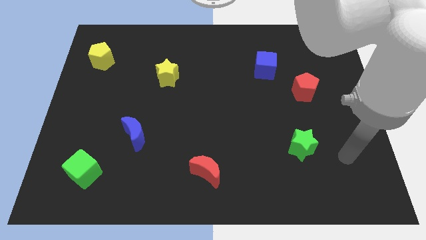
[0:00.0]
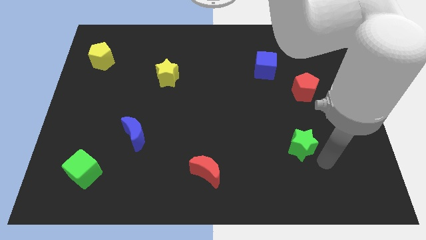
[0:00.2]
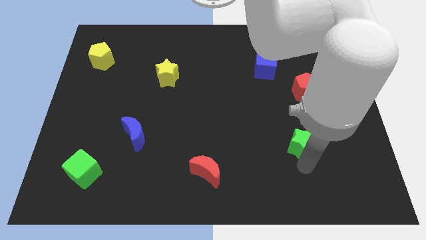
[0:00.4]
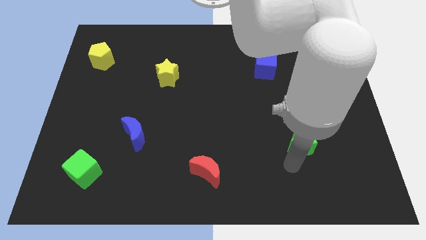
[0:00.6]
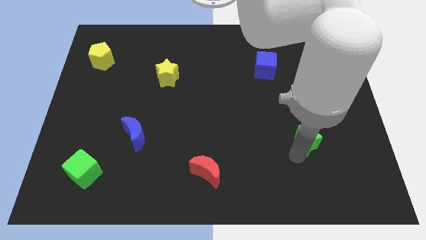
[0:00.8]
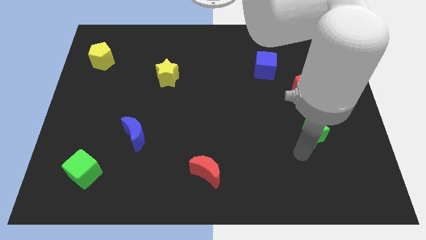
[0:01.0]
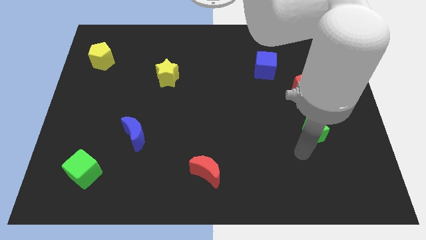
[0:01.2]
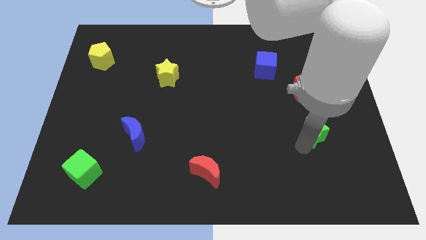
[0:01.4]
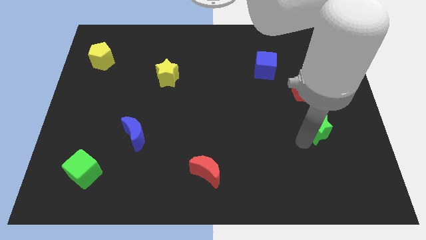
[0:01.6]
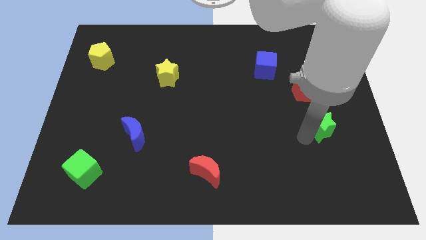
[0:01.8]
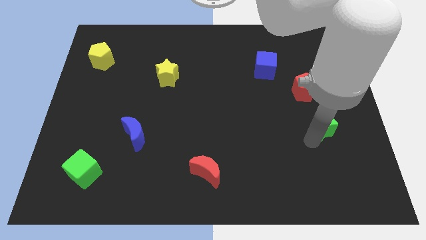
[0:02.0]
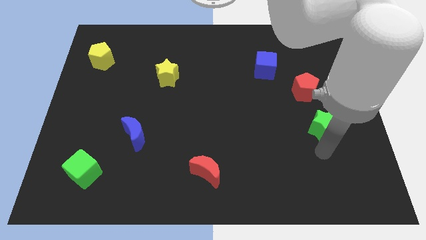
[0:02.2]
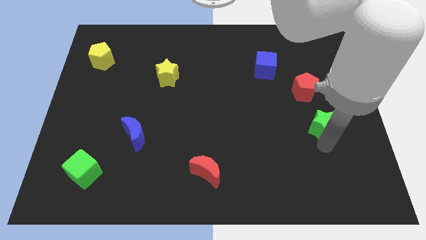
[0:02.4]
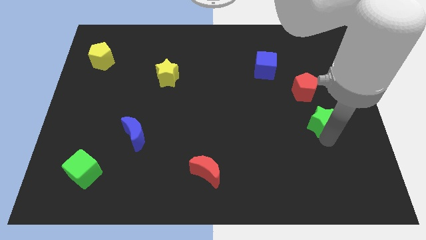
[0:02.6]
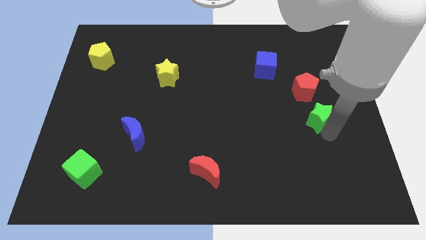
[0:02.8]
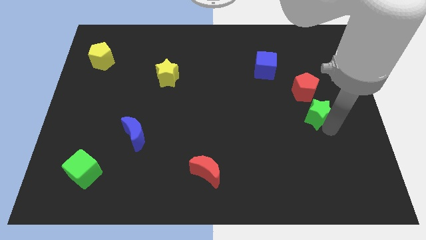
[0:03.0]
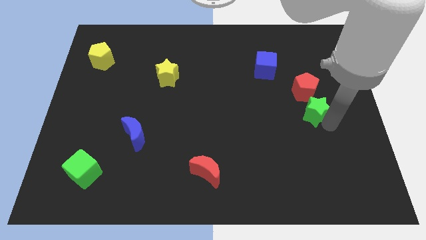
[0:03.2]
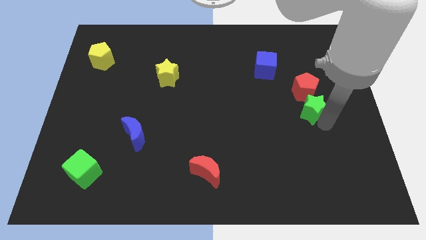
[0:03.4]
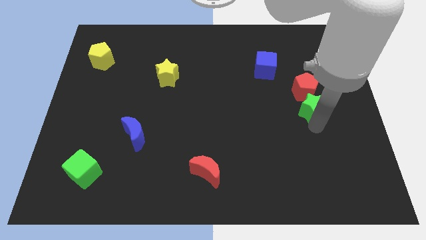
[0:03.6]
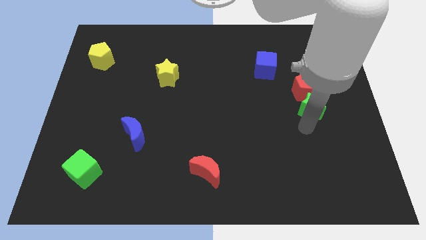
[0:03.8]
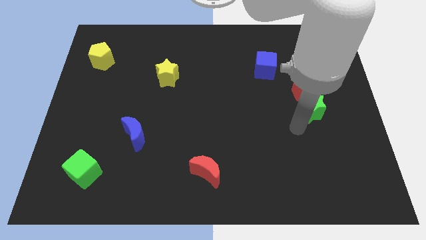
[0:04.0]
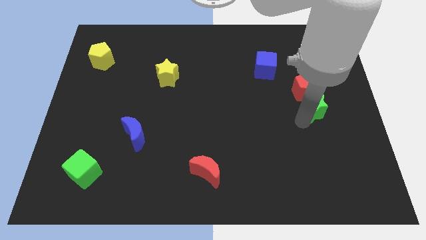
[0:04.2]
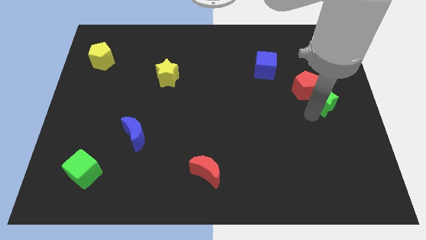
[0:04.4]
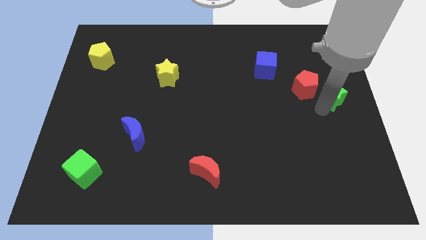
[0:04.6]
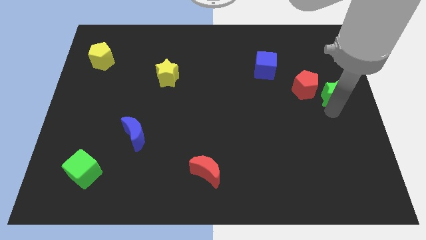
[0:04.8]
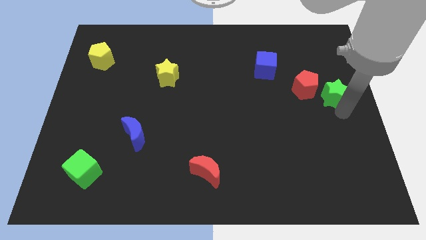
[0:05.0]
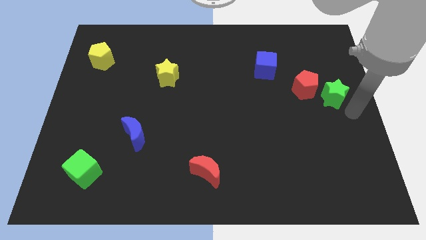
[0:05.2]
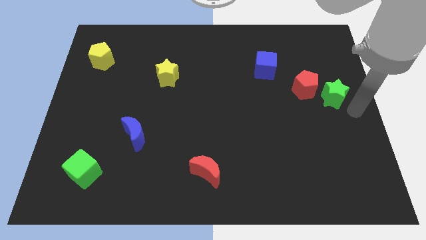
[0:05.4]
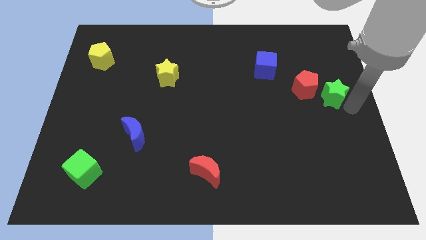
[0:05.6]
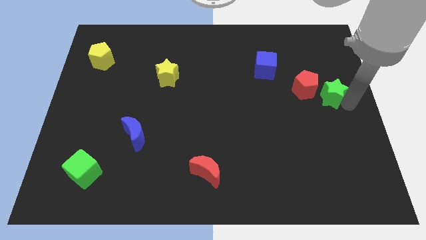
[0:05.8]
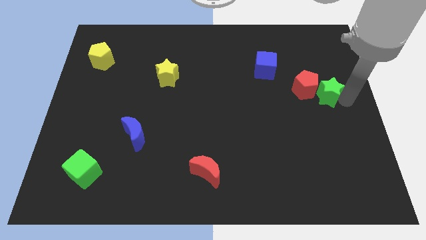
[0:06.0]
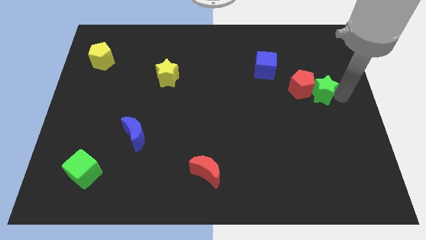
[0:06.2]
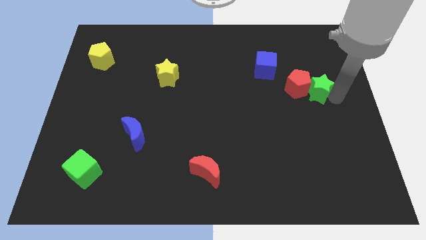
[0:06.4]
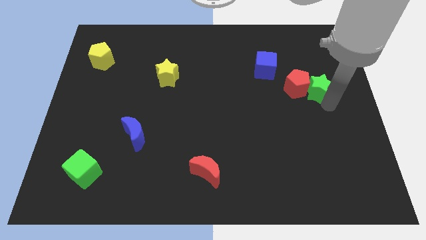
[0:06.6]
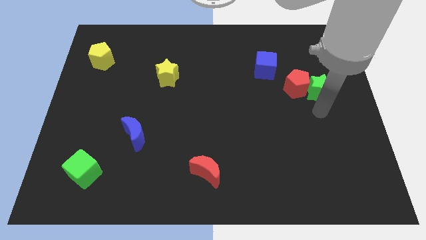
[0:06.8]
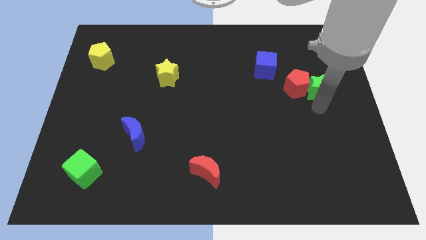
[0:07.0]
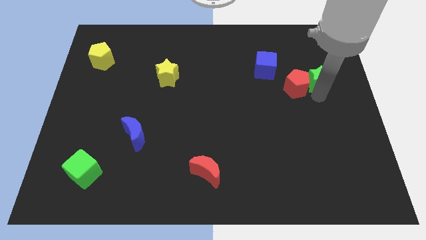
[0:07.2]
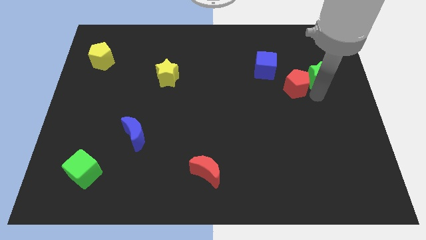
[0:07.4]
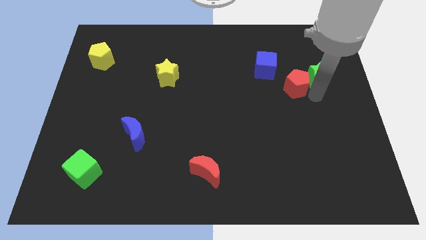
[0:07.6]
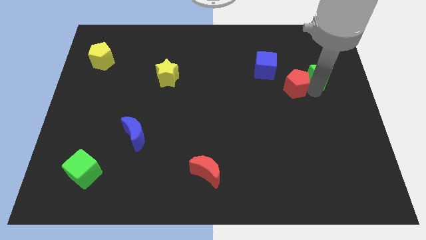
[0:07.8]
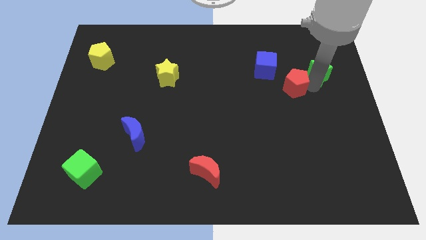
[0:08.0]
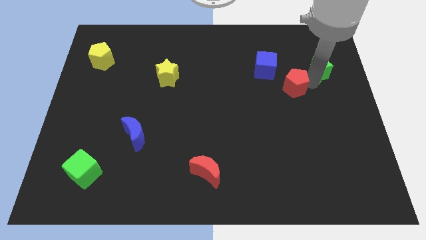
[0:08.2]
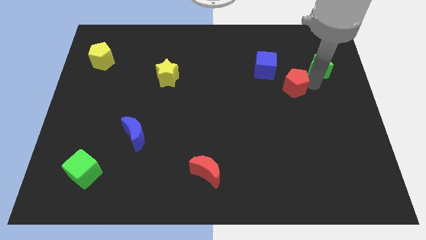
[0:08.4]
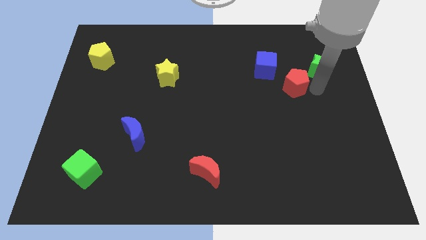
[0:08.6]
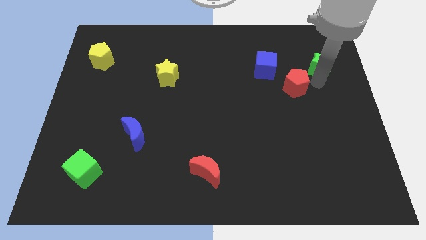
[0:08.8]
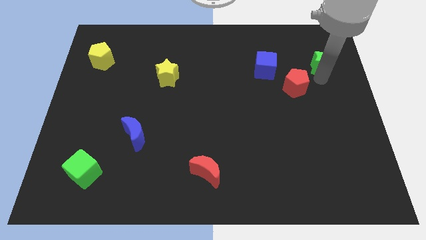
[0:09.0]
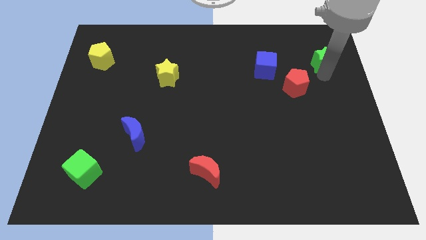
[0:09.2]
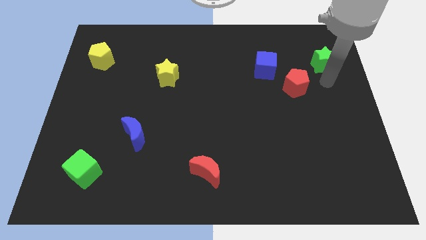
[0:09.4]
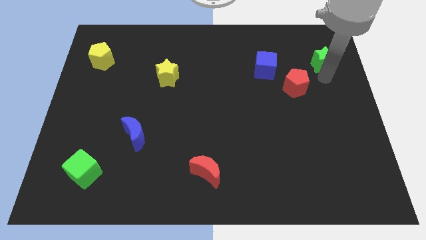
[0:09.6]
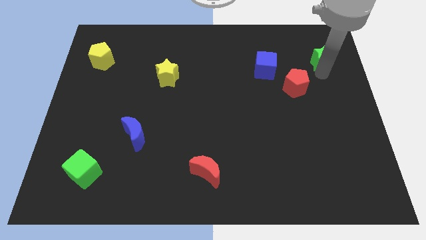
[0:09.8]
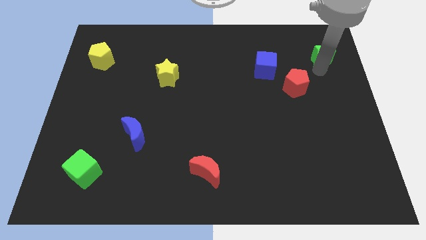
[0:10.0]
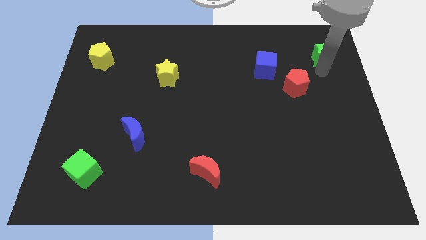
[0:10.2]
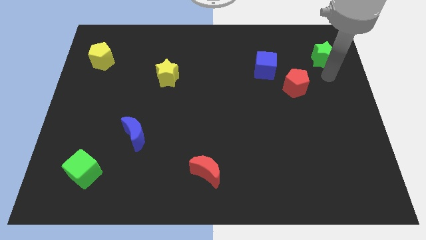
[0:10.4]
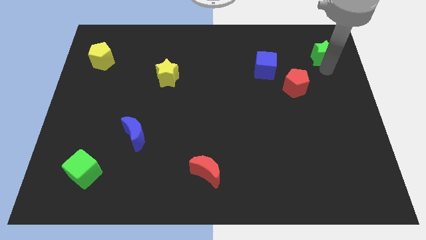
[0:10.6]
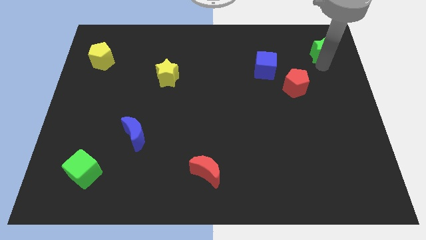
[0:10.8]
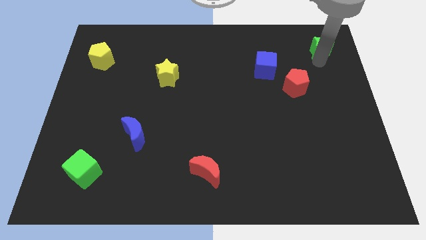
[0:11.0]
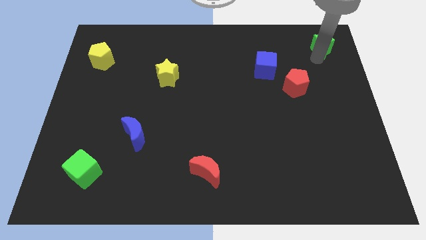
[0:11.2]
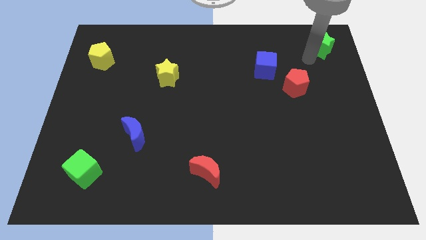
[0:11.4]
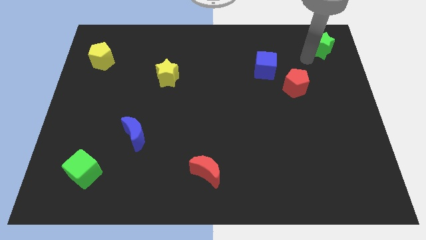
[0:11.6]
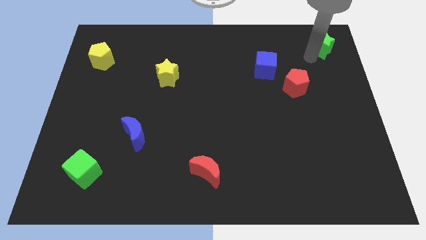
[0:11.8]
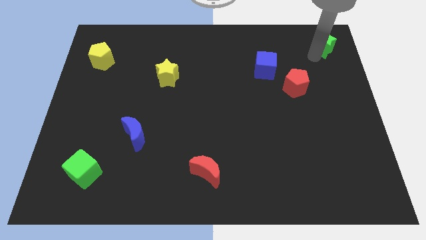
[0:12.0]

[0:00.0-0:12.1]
put the green star to the top right of the board

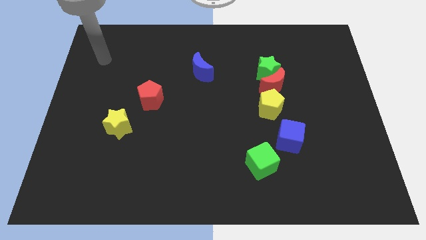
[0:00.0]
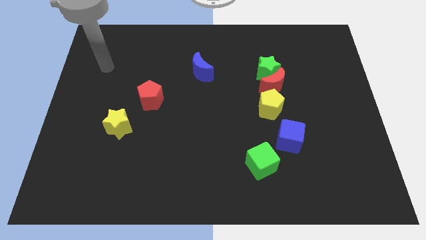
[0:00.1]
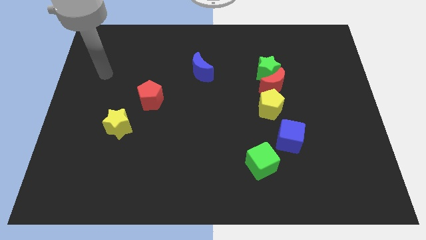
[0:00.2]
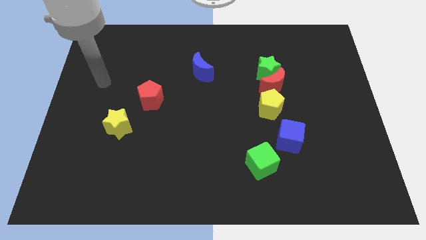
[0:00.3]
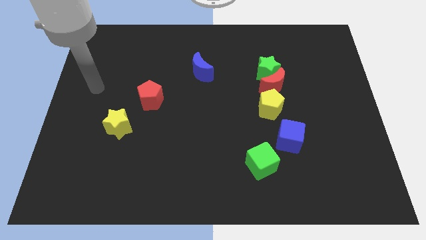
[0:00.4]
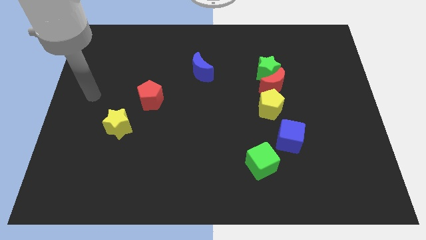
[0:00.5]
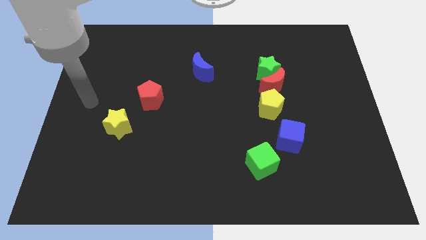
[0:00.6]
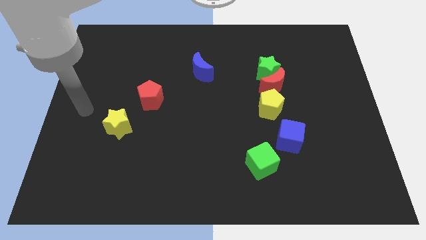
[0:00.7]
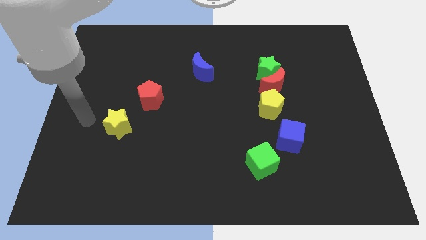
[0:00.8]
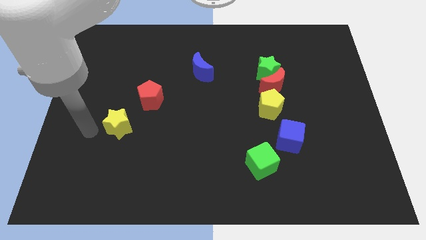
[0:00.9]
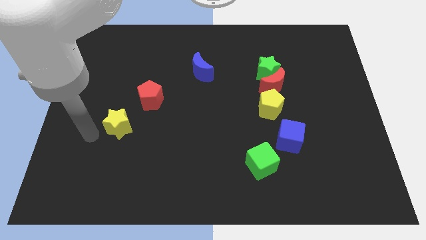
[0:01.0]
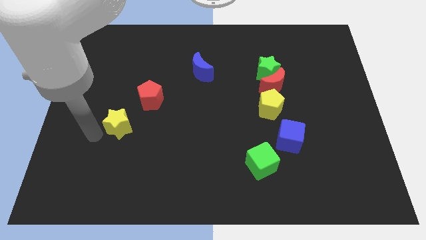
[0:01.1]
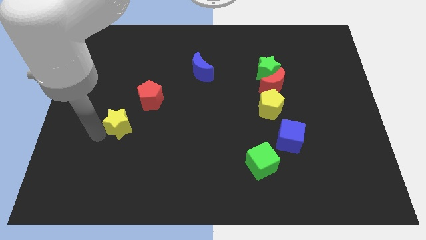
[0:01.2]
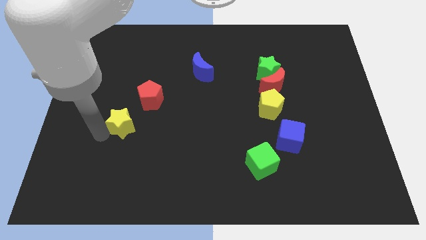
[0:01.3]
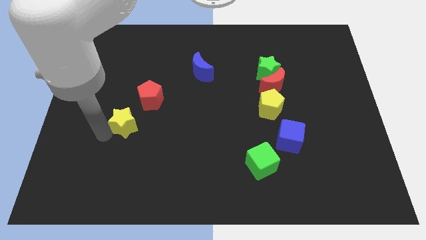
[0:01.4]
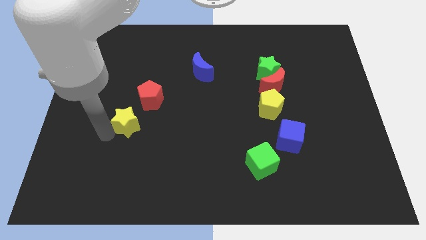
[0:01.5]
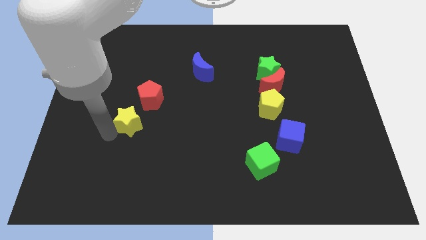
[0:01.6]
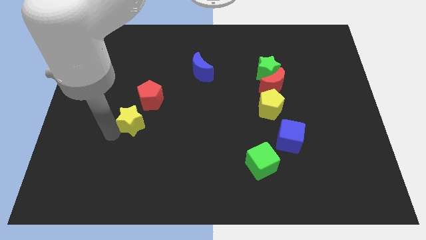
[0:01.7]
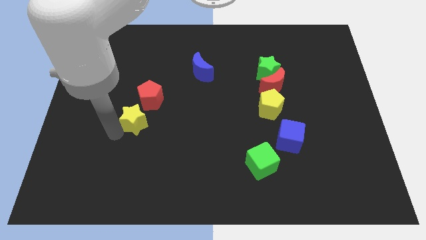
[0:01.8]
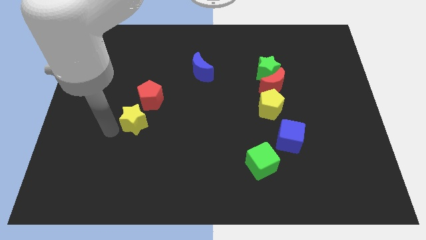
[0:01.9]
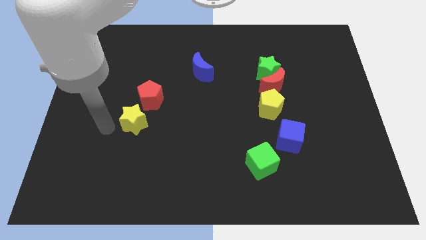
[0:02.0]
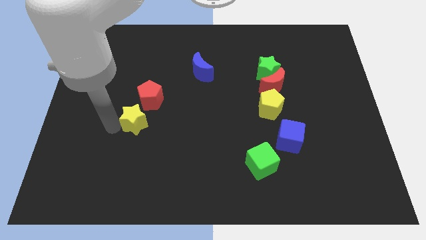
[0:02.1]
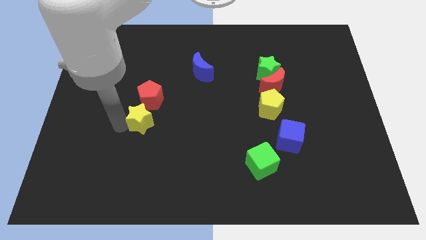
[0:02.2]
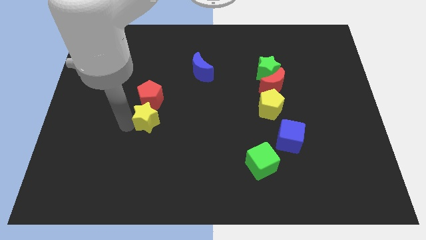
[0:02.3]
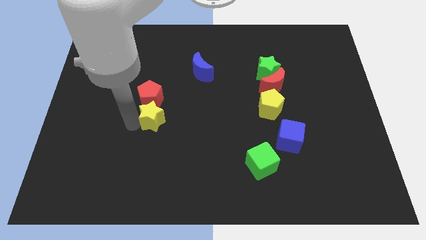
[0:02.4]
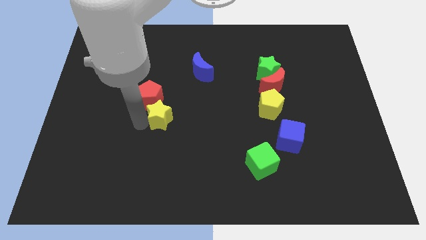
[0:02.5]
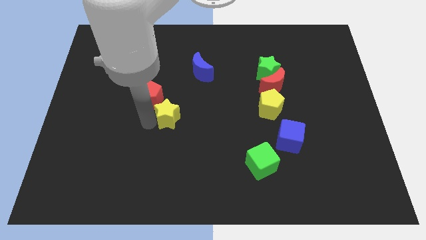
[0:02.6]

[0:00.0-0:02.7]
push the yellow star to the middle
